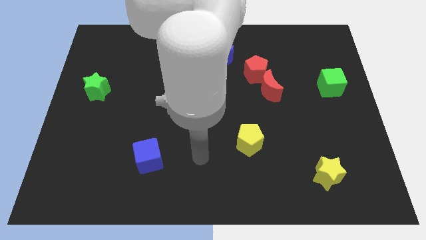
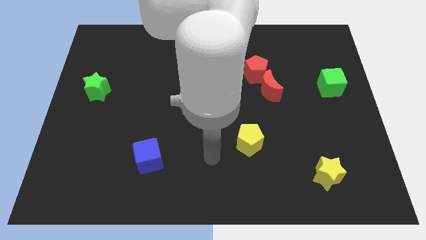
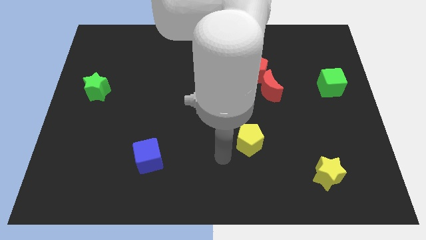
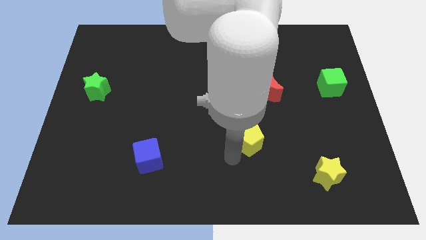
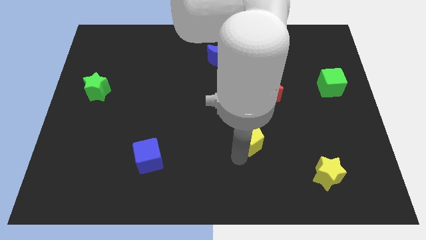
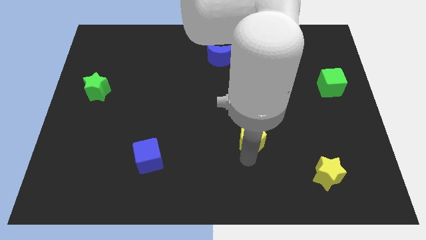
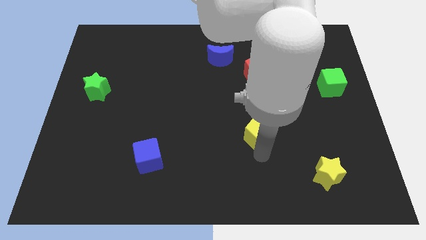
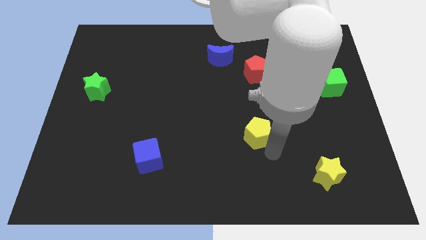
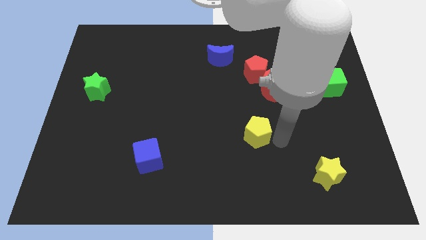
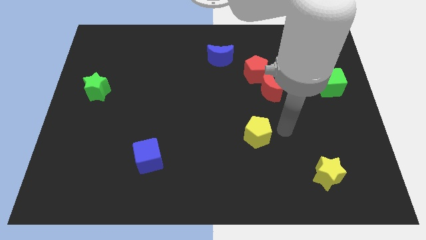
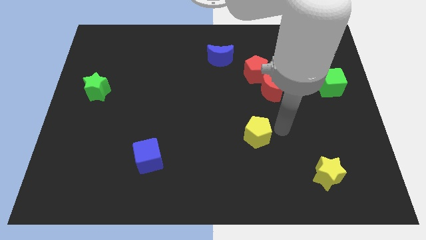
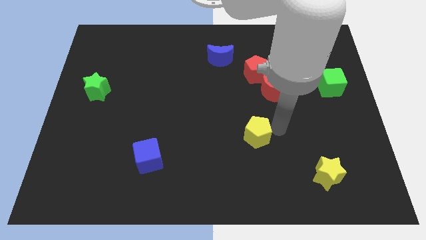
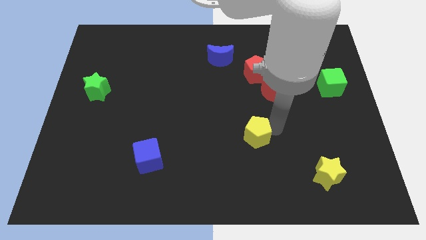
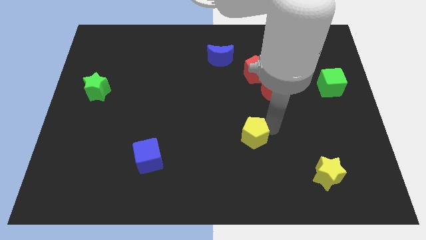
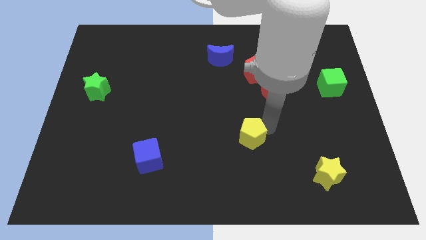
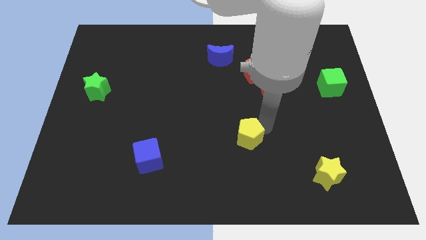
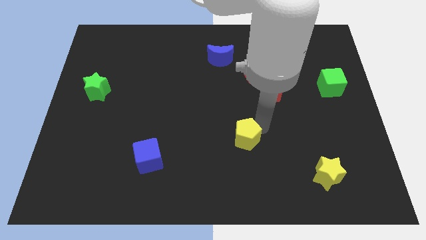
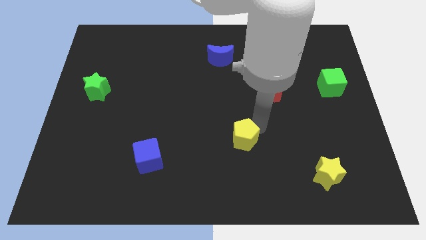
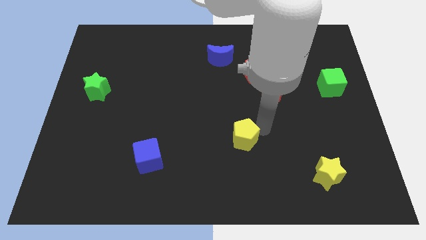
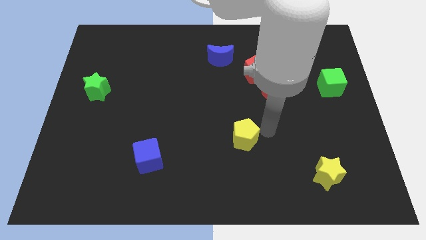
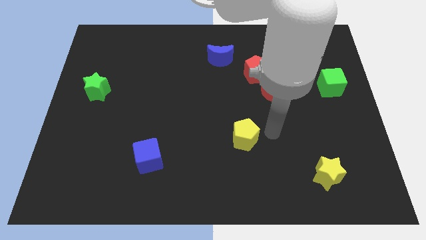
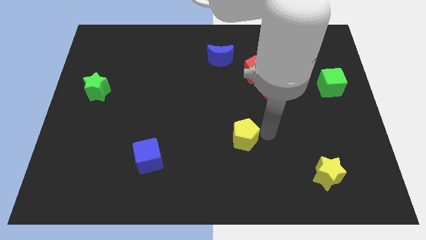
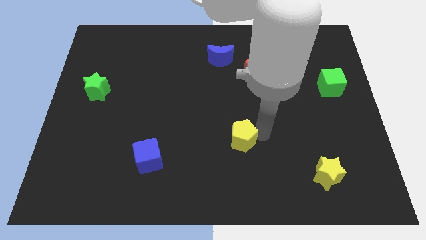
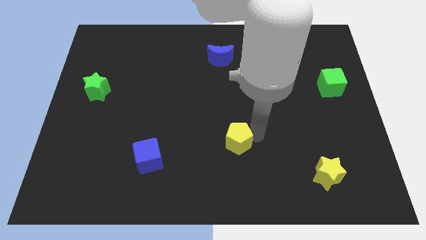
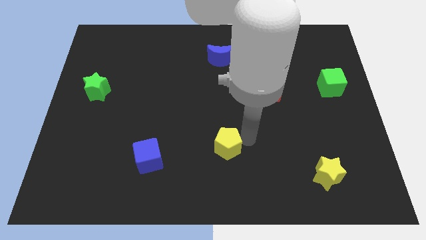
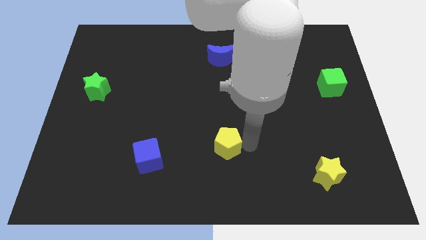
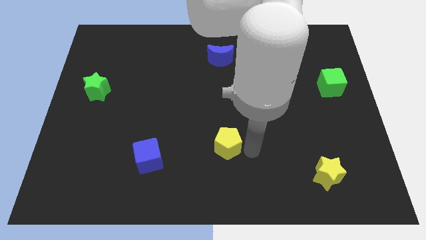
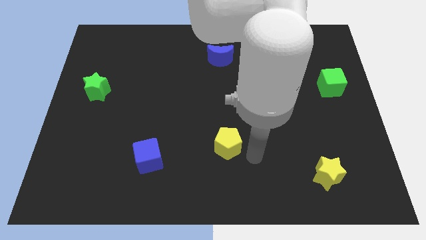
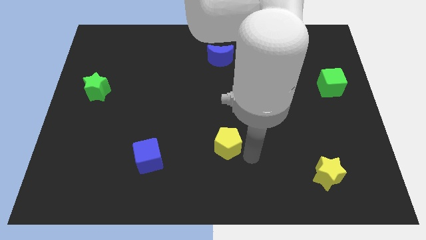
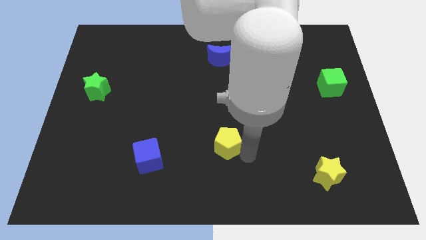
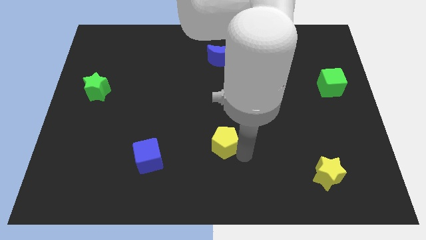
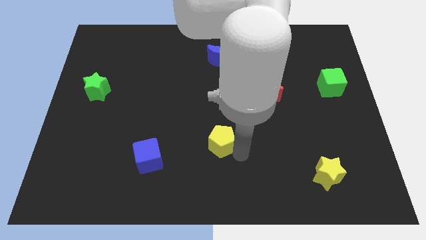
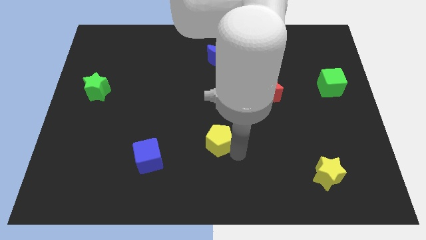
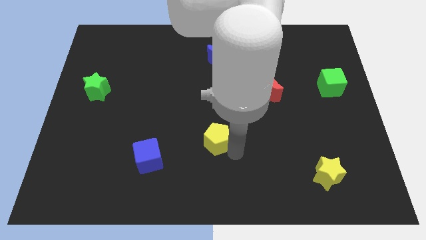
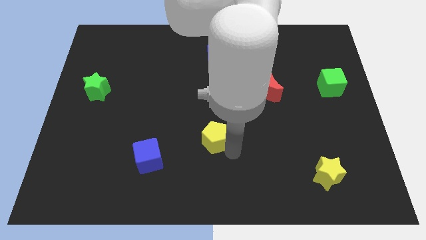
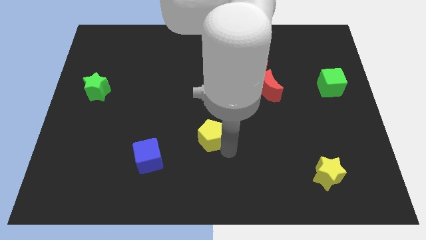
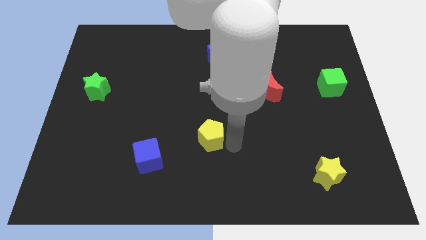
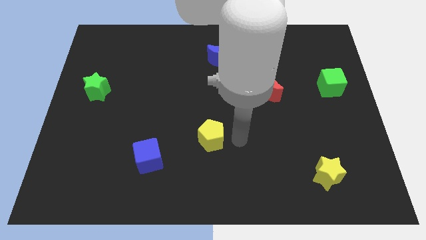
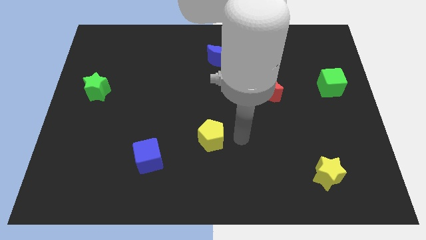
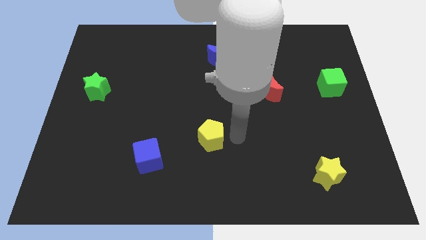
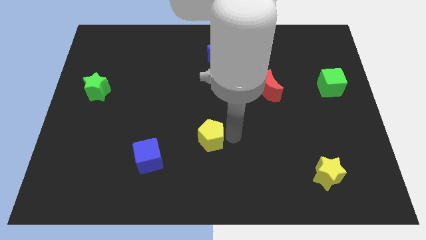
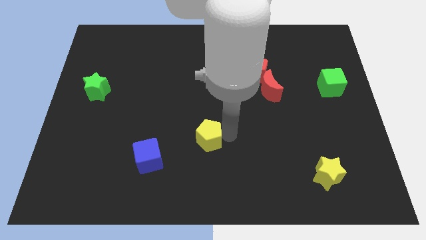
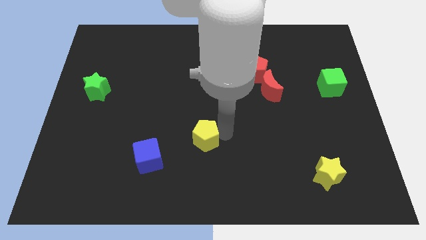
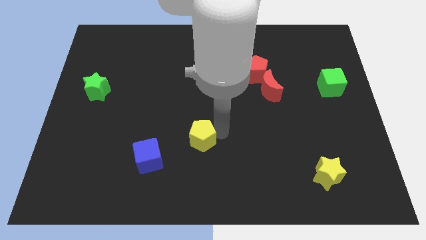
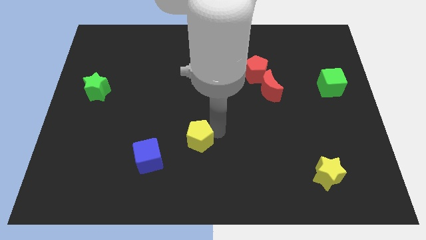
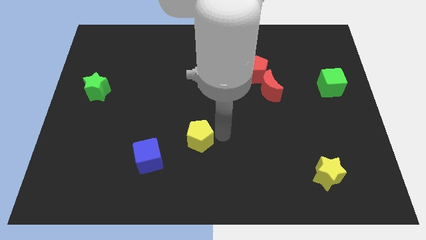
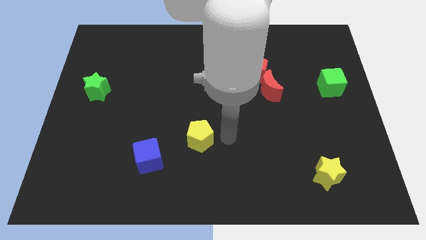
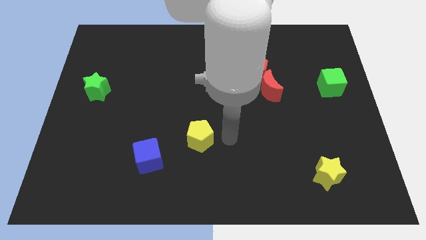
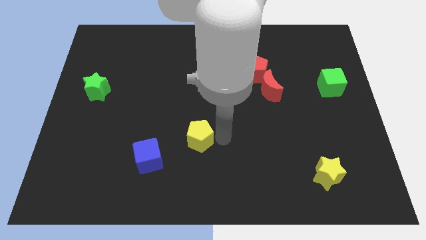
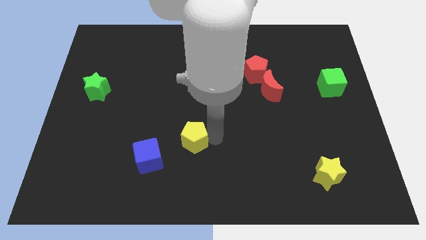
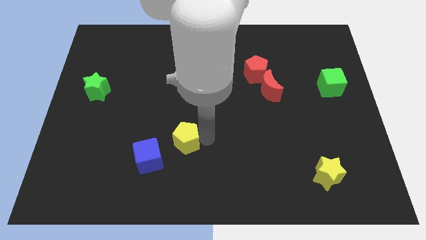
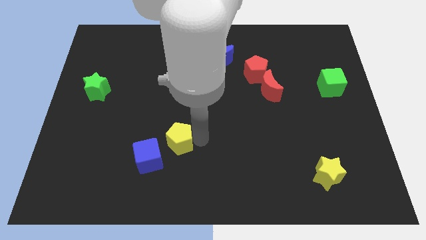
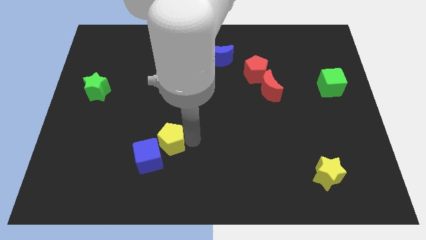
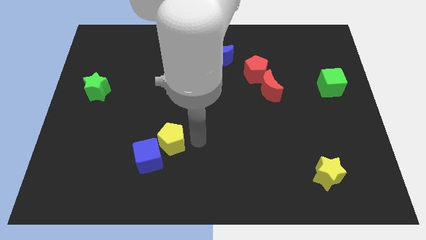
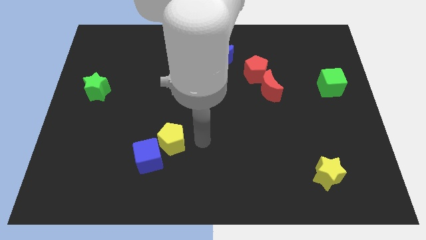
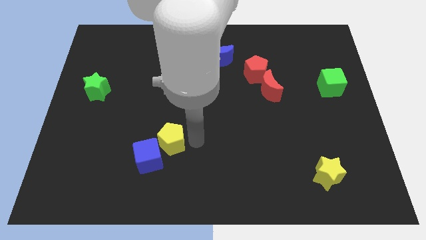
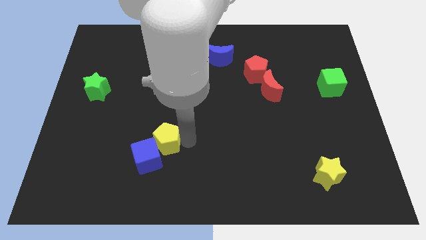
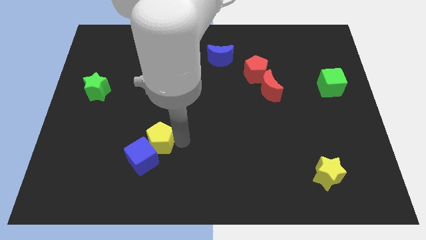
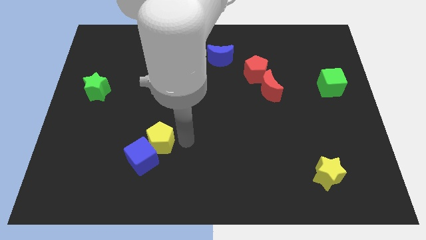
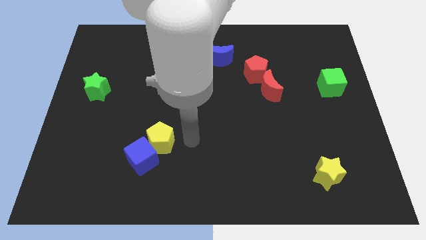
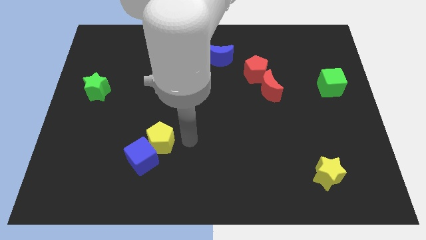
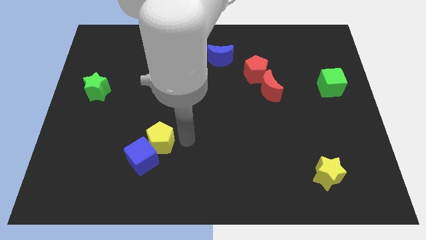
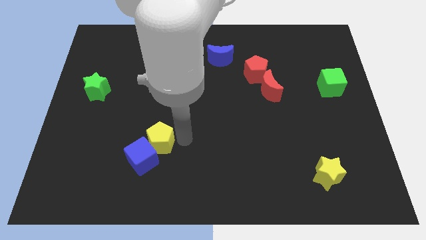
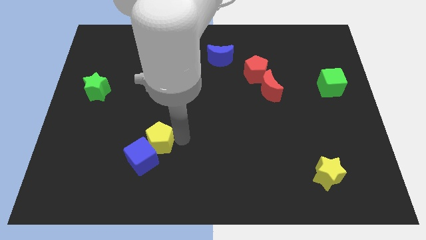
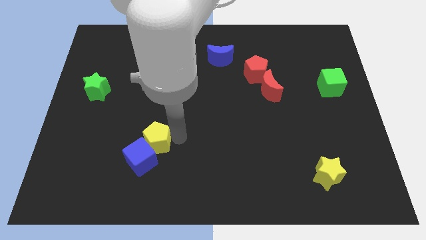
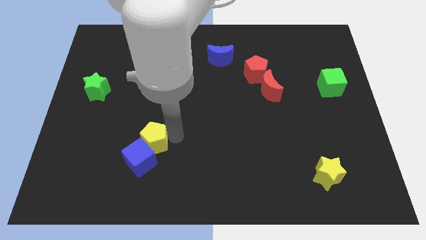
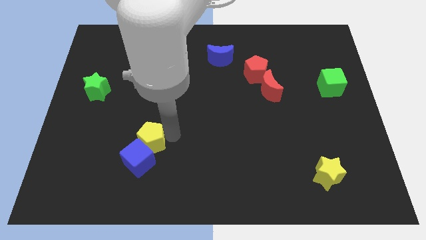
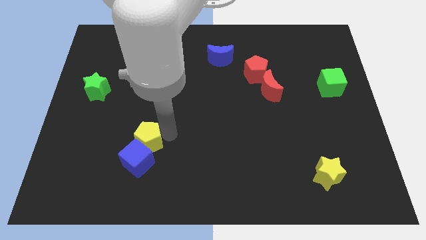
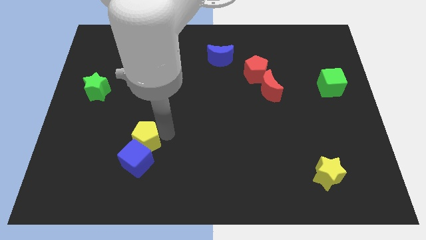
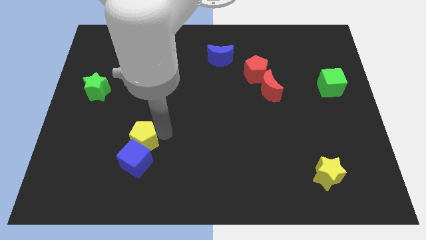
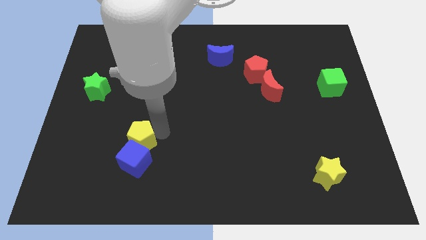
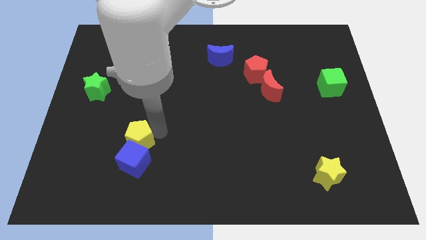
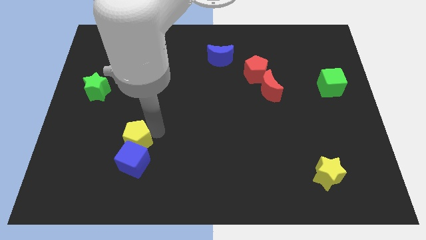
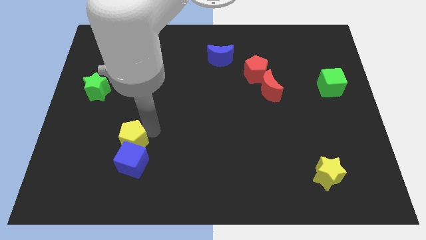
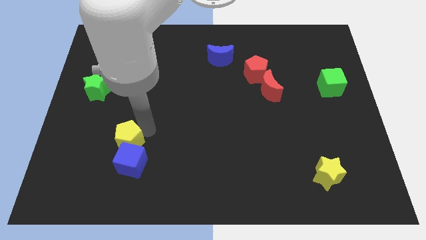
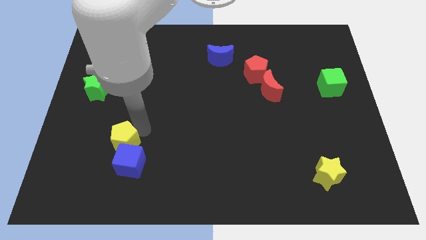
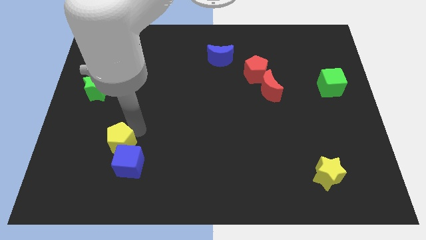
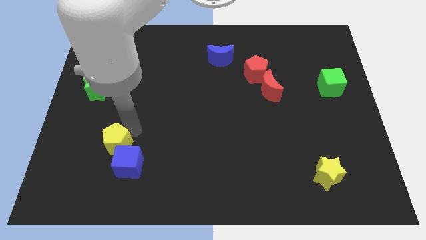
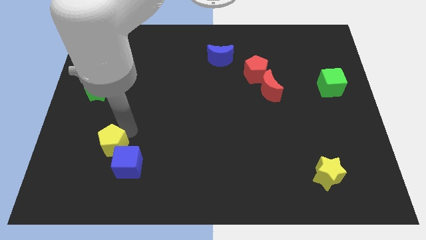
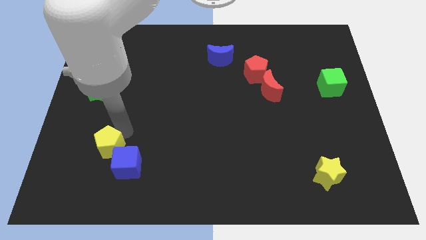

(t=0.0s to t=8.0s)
move the yellow pentagon to the left of the blue cube
